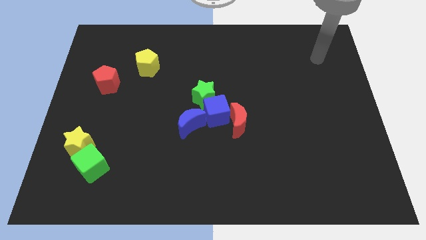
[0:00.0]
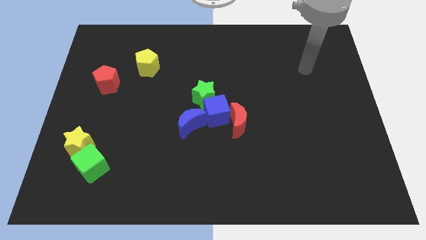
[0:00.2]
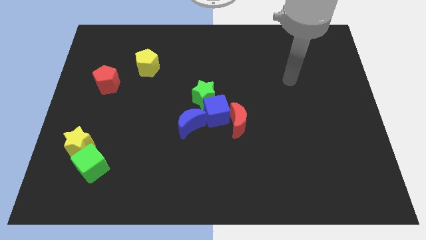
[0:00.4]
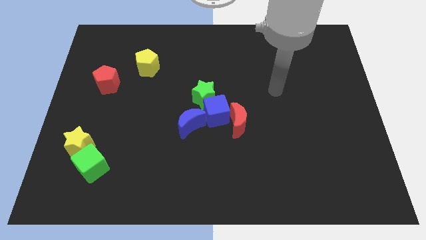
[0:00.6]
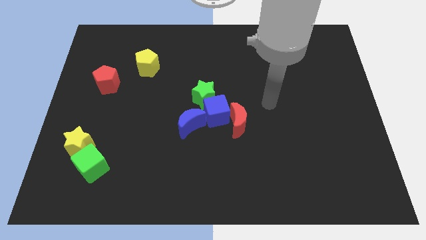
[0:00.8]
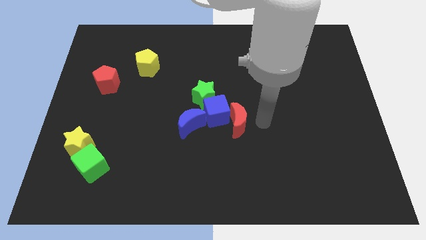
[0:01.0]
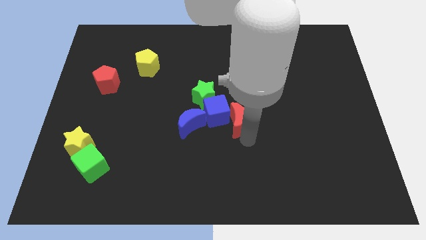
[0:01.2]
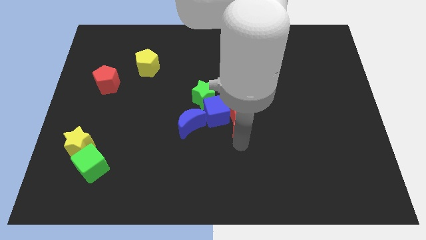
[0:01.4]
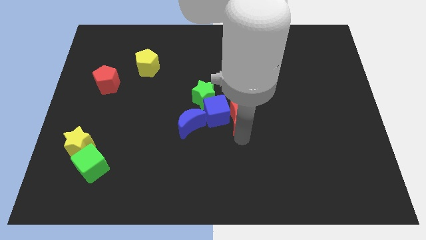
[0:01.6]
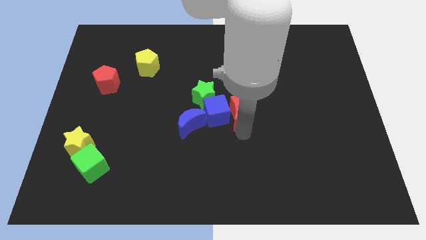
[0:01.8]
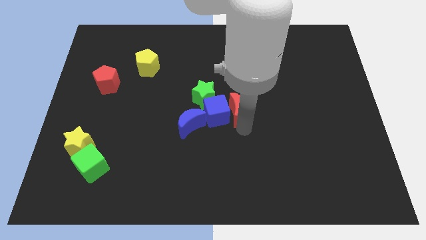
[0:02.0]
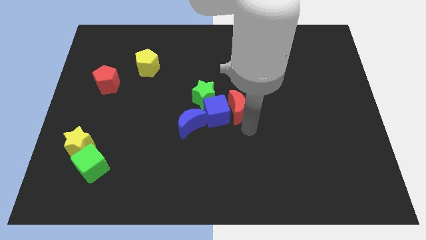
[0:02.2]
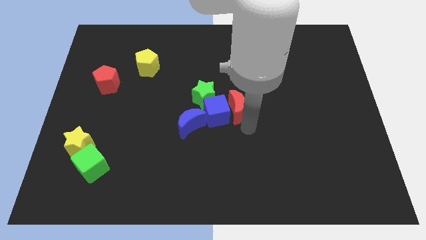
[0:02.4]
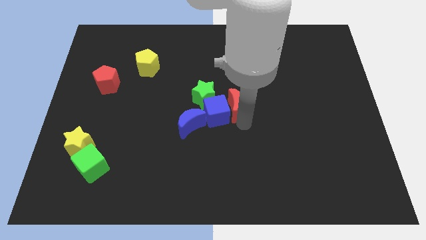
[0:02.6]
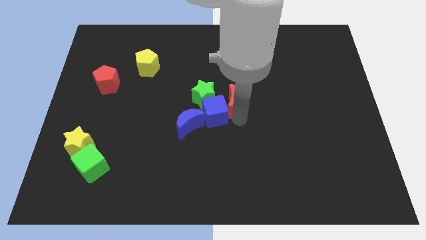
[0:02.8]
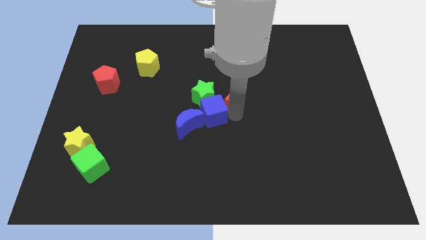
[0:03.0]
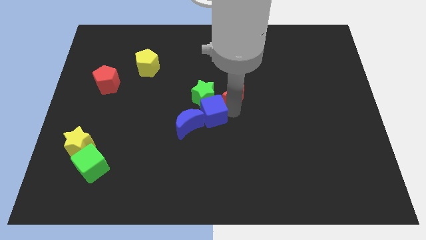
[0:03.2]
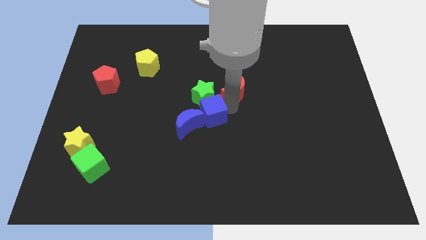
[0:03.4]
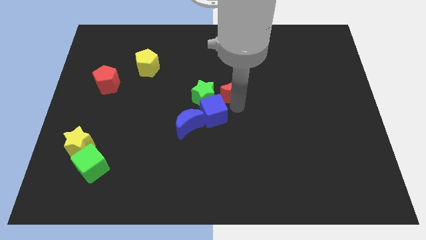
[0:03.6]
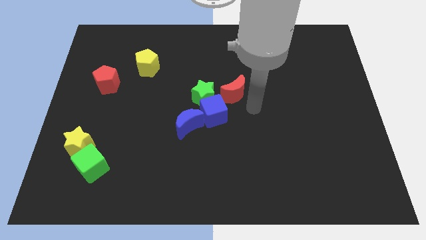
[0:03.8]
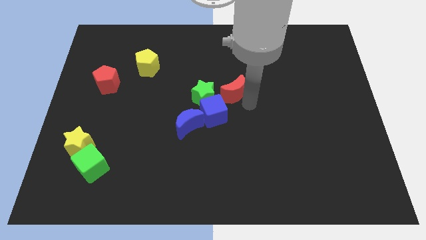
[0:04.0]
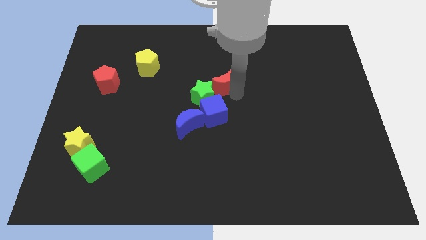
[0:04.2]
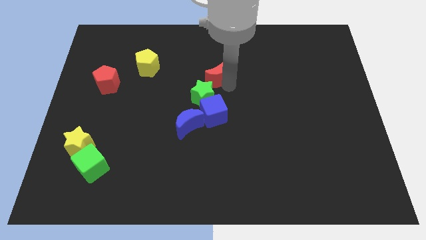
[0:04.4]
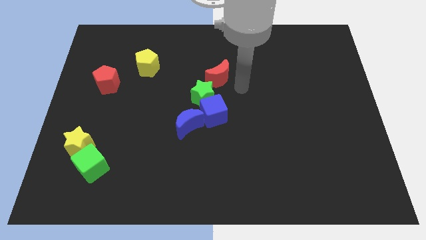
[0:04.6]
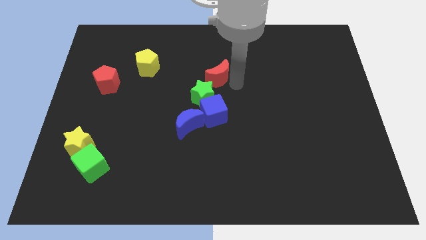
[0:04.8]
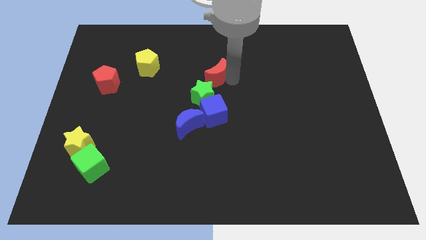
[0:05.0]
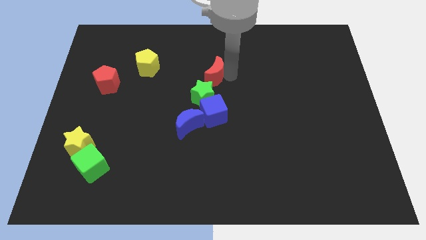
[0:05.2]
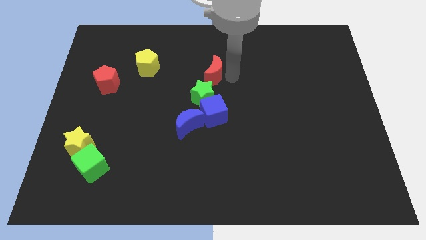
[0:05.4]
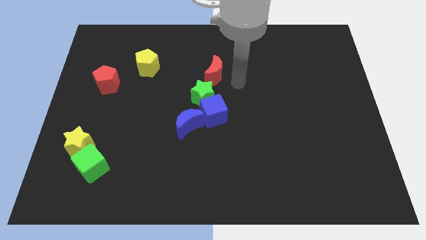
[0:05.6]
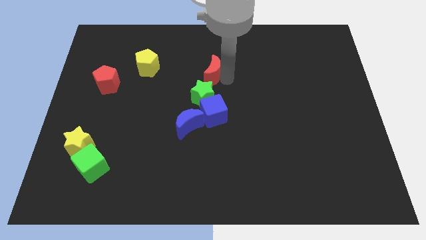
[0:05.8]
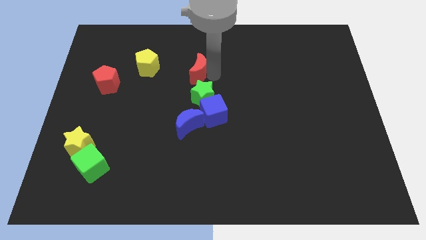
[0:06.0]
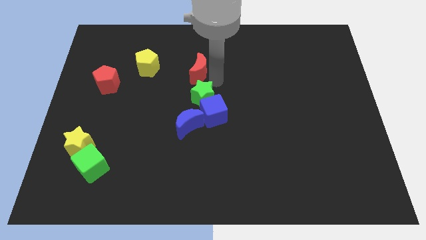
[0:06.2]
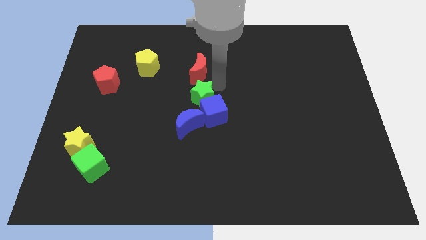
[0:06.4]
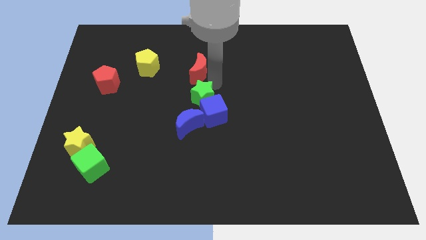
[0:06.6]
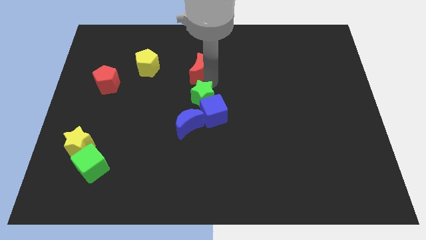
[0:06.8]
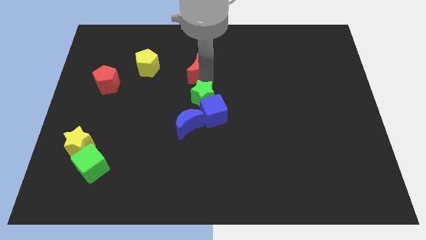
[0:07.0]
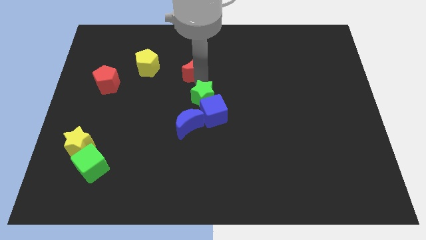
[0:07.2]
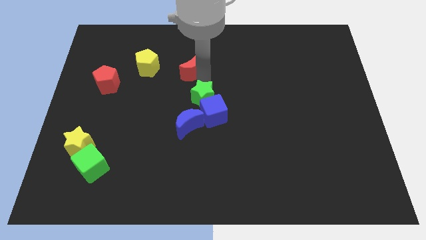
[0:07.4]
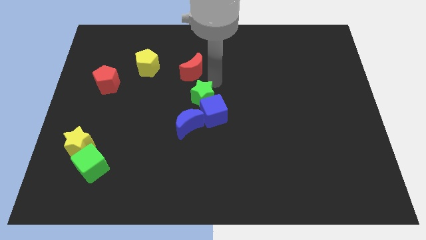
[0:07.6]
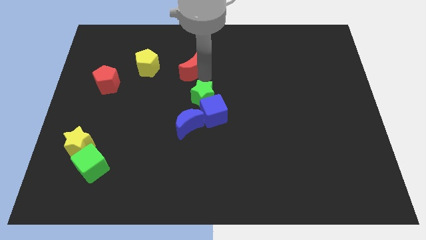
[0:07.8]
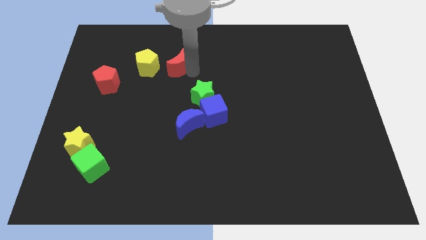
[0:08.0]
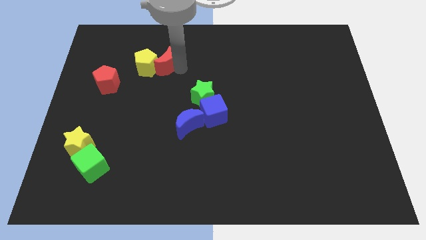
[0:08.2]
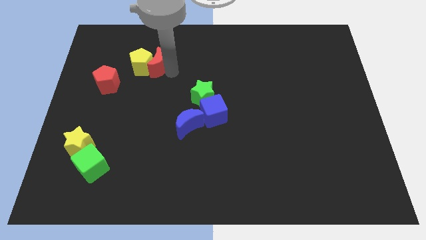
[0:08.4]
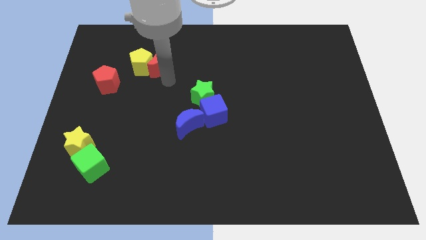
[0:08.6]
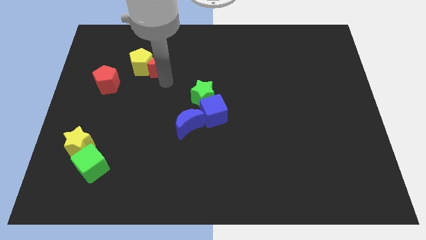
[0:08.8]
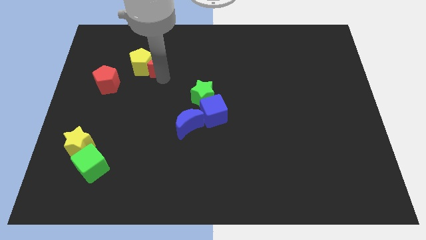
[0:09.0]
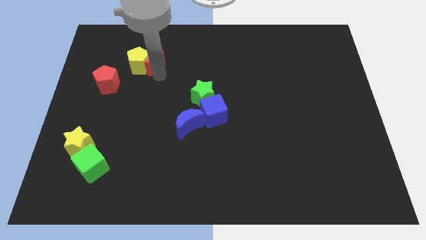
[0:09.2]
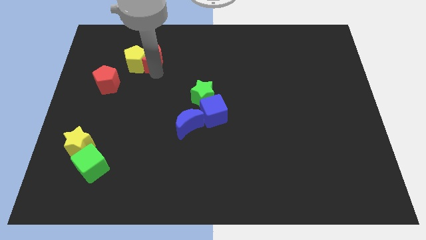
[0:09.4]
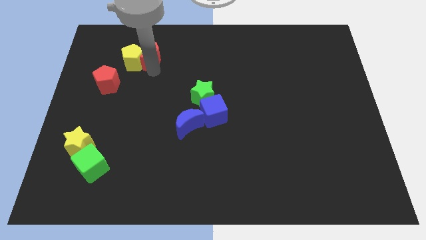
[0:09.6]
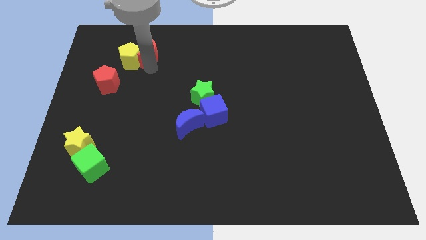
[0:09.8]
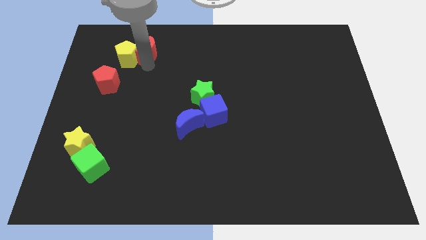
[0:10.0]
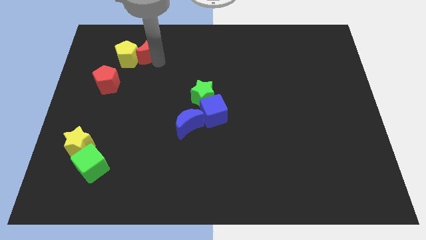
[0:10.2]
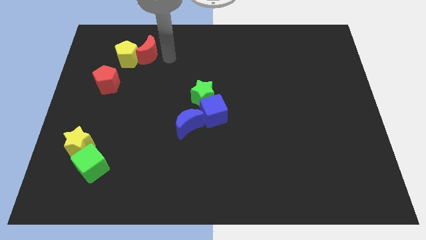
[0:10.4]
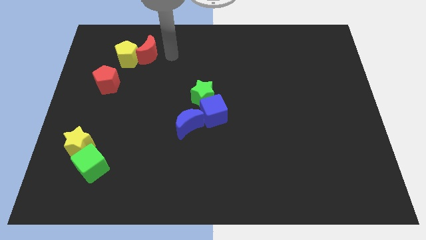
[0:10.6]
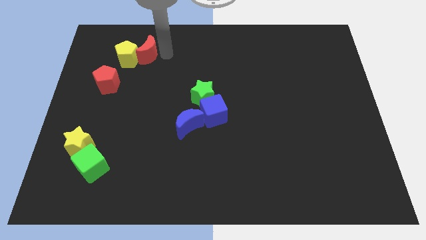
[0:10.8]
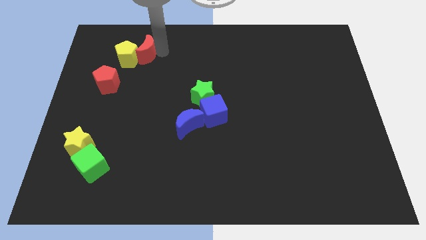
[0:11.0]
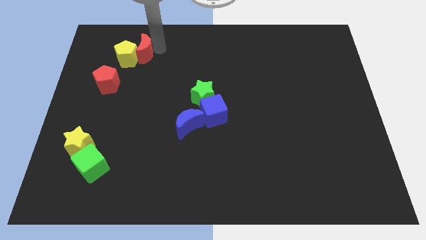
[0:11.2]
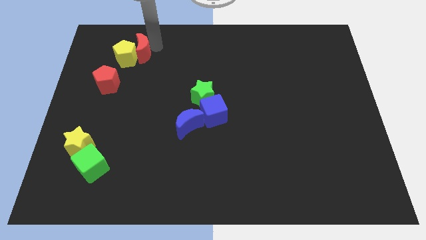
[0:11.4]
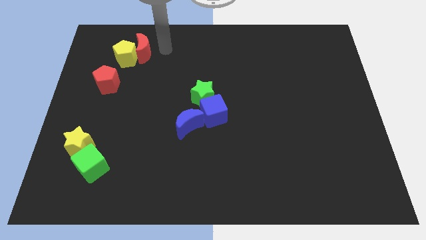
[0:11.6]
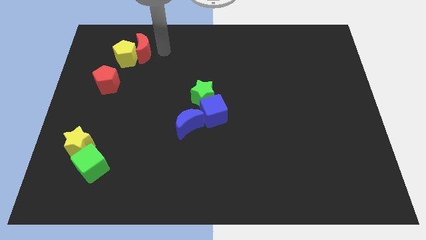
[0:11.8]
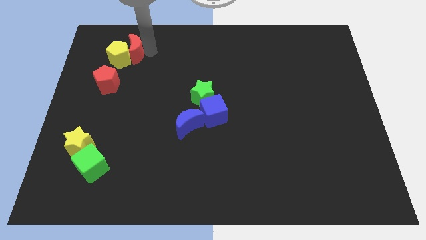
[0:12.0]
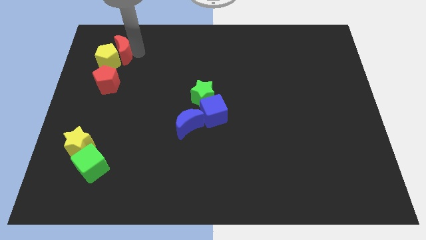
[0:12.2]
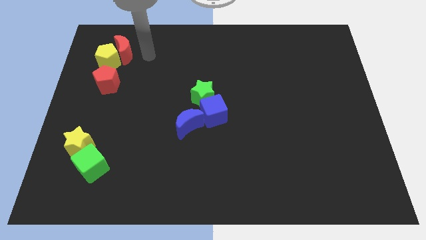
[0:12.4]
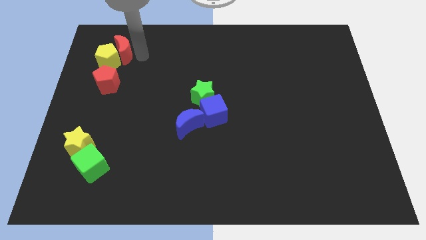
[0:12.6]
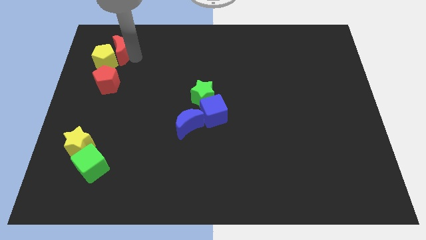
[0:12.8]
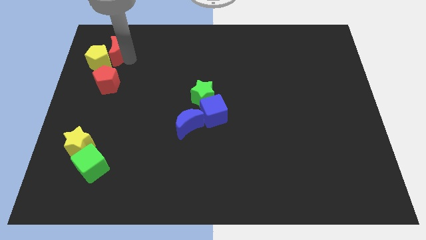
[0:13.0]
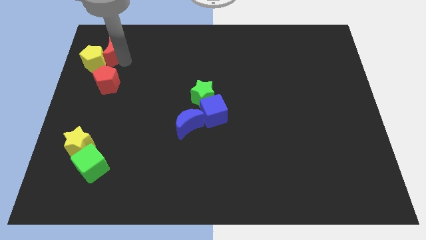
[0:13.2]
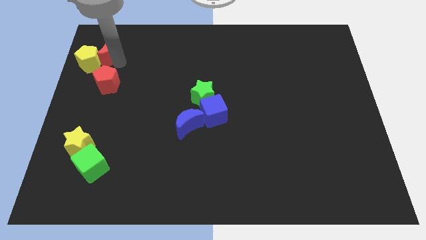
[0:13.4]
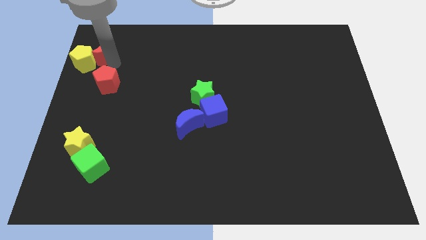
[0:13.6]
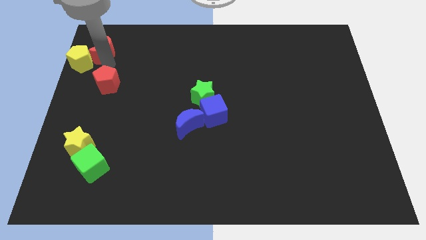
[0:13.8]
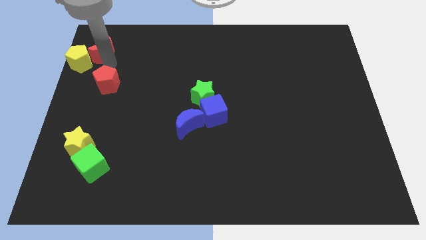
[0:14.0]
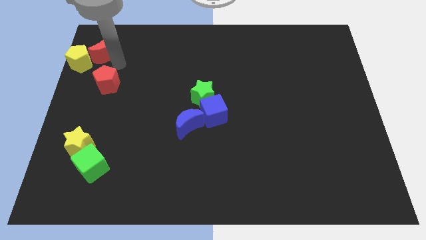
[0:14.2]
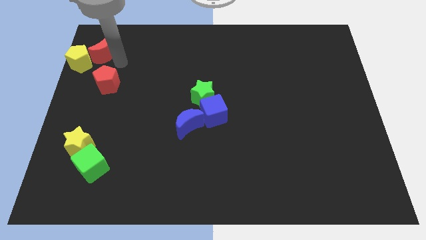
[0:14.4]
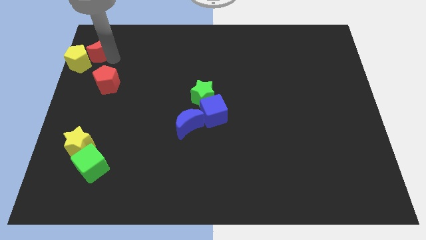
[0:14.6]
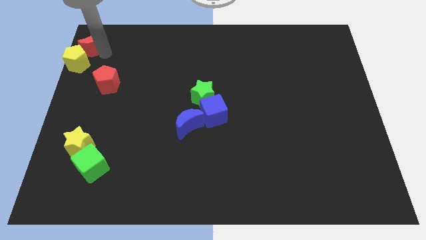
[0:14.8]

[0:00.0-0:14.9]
slide the red moon to the top left corner
